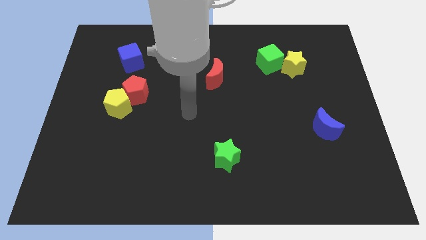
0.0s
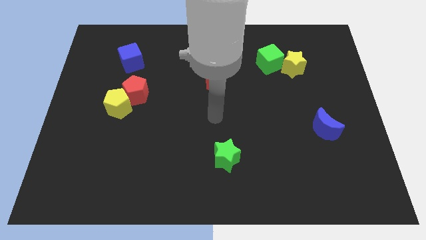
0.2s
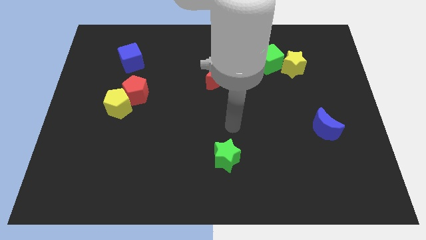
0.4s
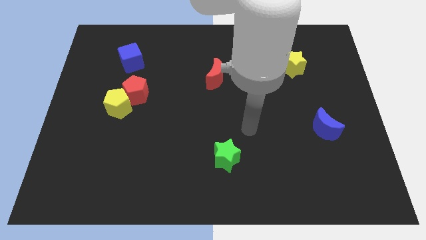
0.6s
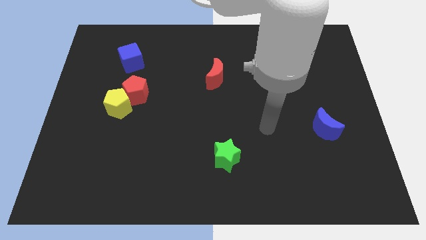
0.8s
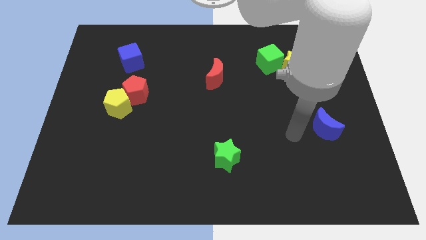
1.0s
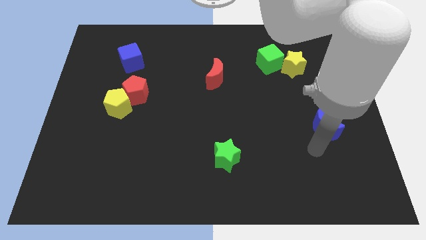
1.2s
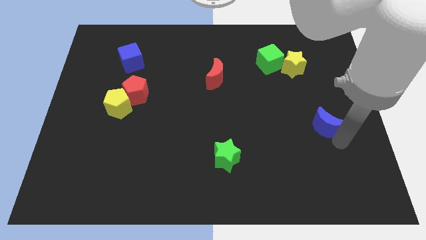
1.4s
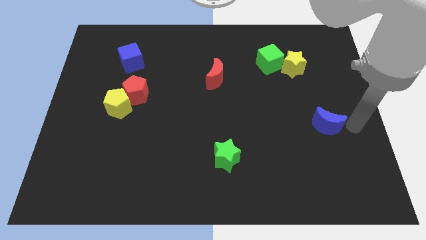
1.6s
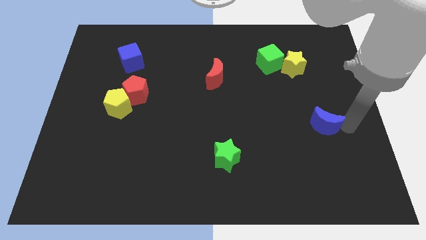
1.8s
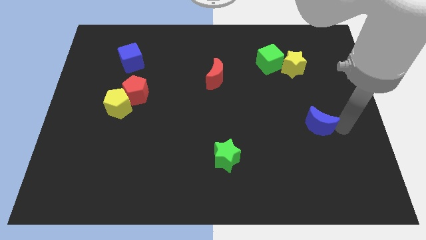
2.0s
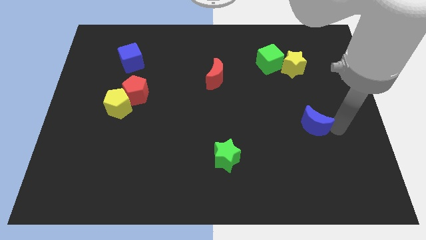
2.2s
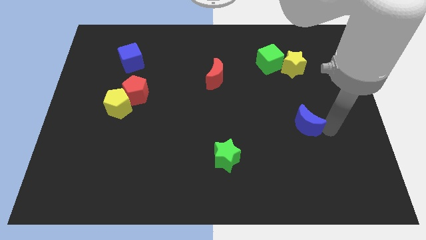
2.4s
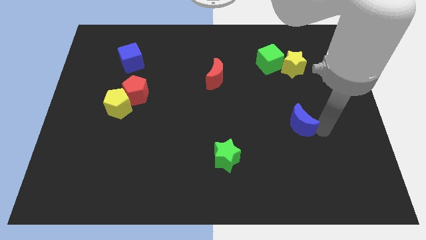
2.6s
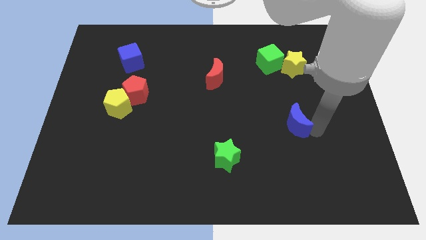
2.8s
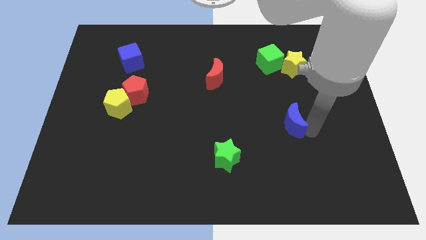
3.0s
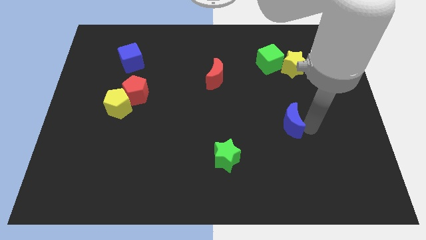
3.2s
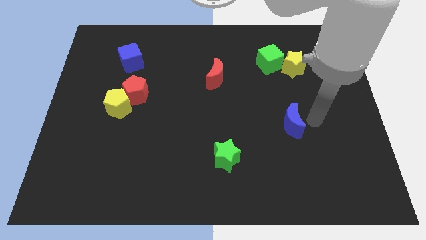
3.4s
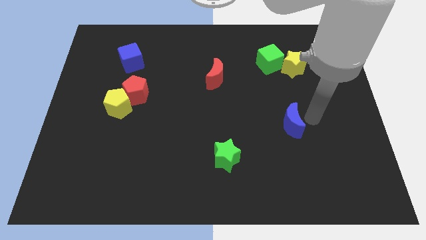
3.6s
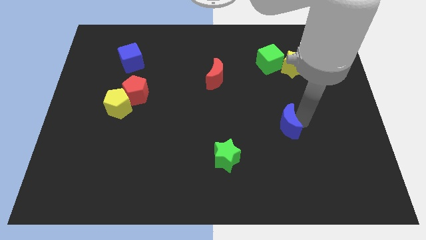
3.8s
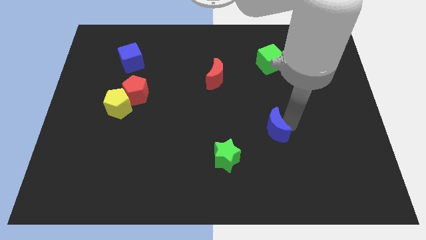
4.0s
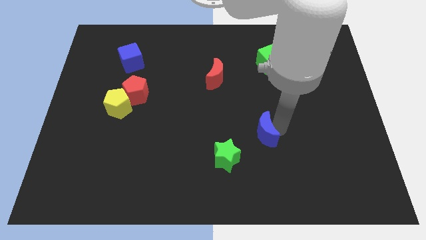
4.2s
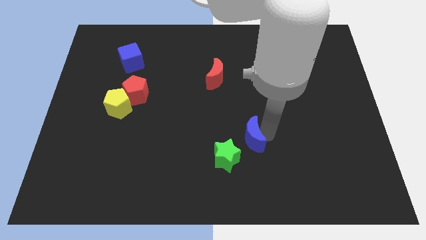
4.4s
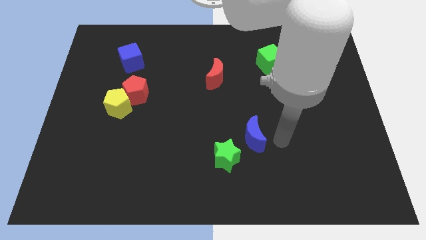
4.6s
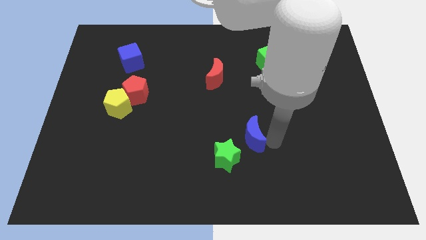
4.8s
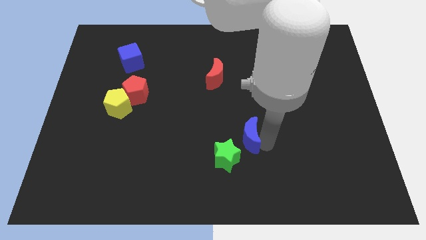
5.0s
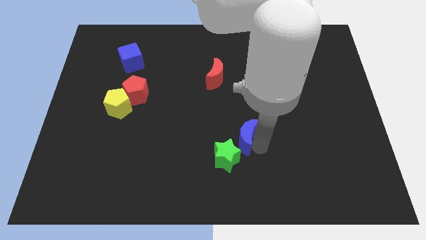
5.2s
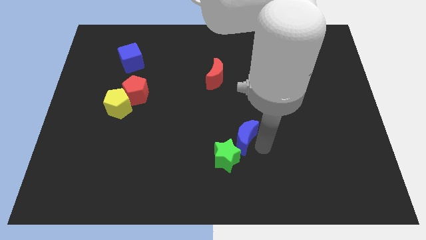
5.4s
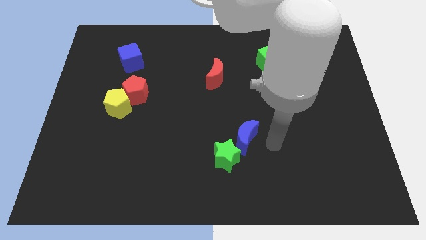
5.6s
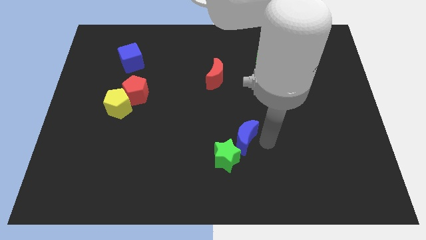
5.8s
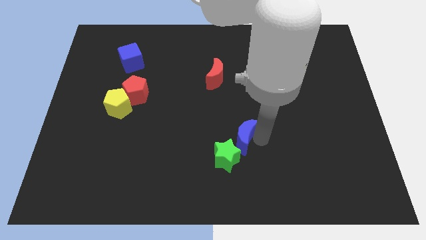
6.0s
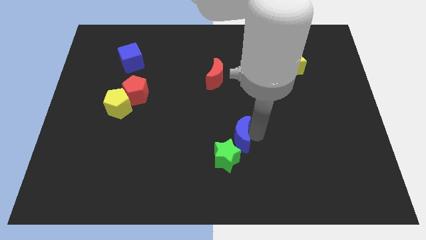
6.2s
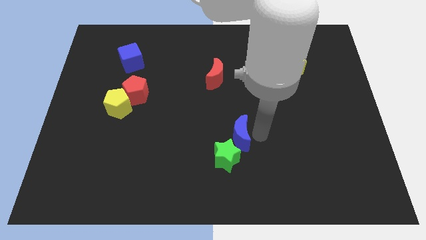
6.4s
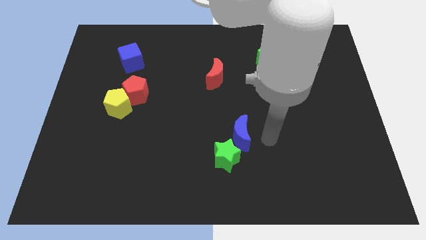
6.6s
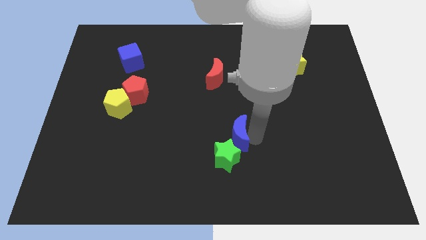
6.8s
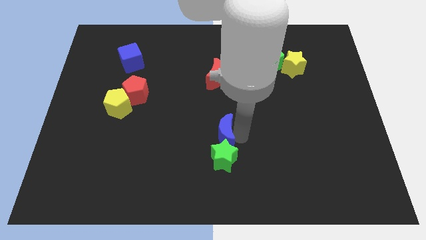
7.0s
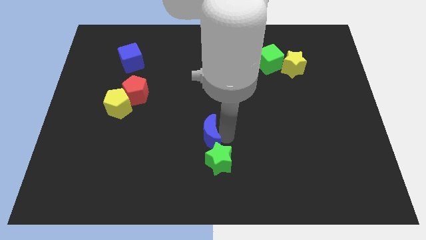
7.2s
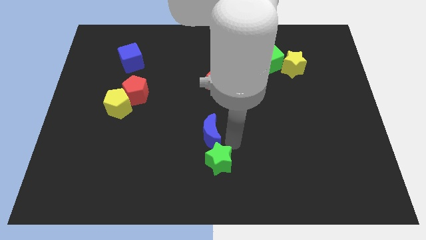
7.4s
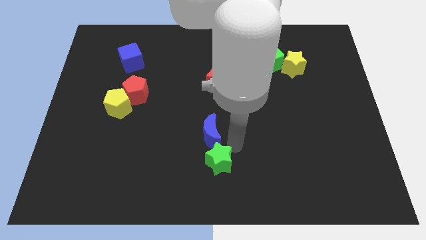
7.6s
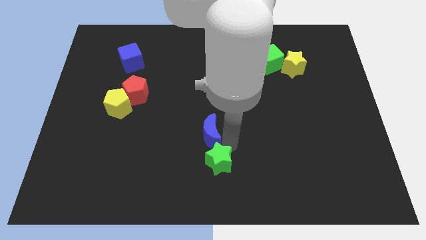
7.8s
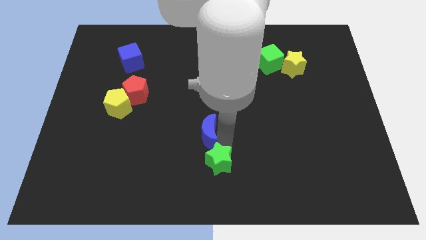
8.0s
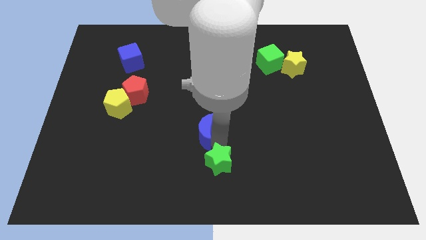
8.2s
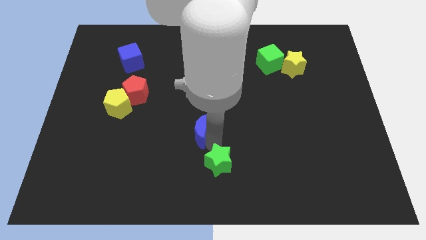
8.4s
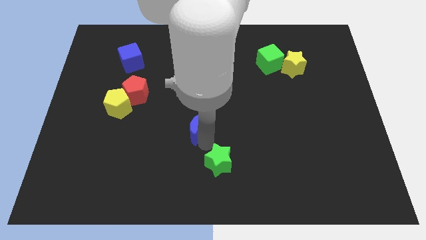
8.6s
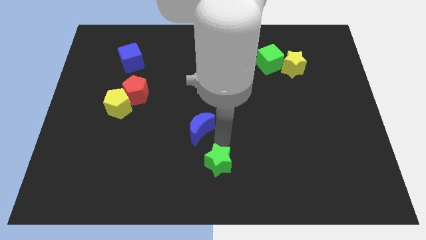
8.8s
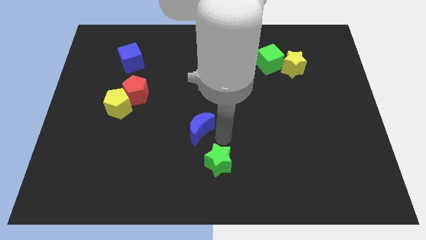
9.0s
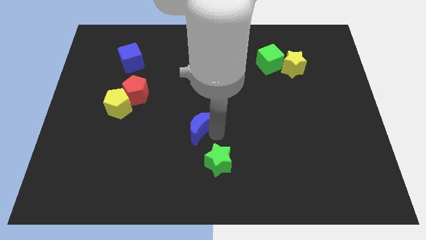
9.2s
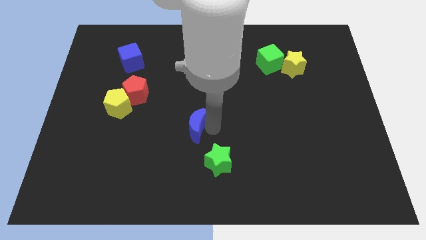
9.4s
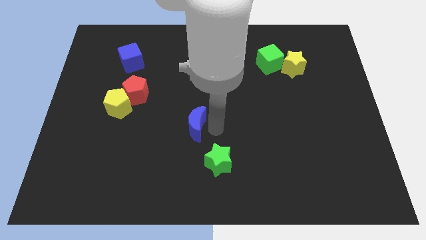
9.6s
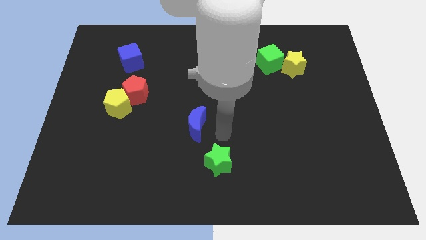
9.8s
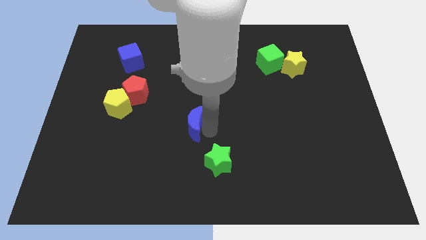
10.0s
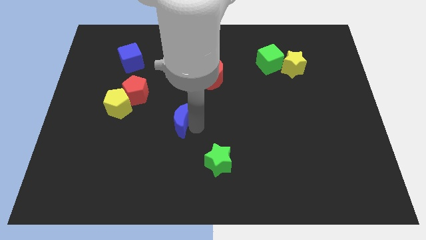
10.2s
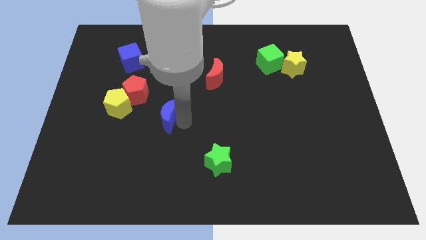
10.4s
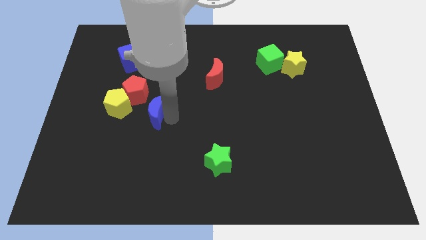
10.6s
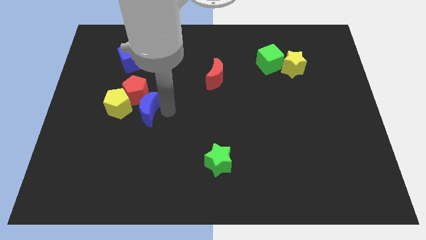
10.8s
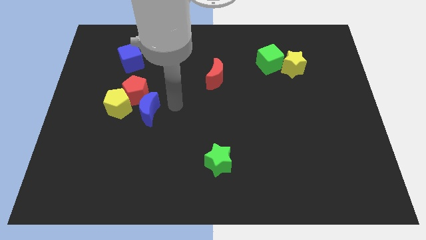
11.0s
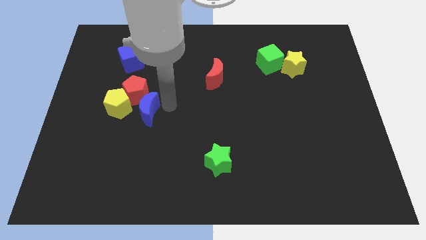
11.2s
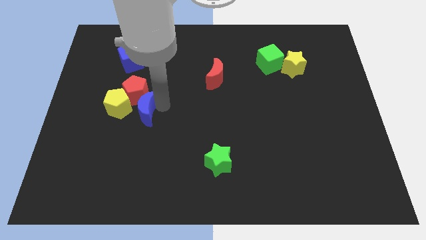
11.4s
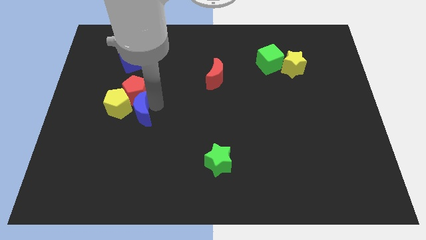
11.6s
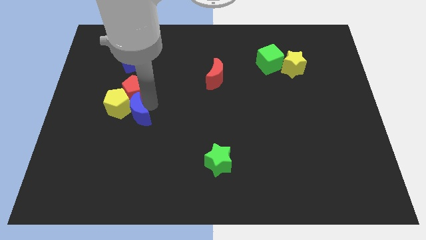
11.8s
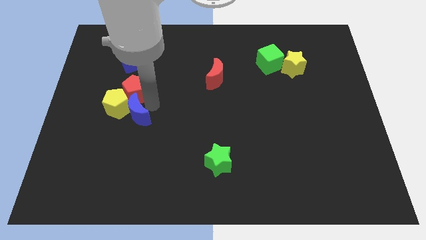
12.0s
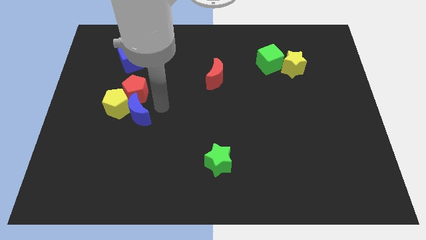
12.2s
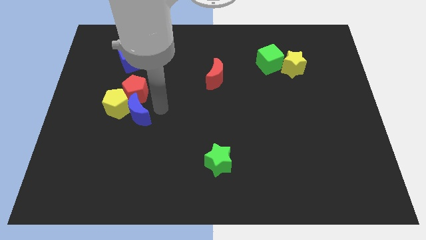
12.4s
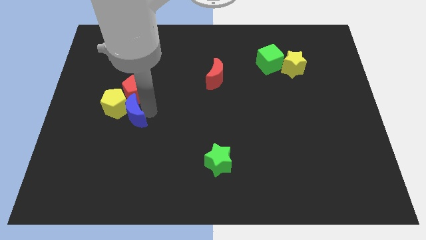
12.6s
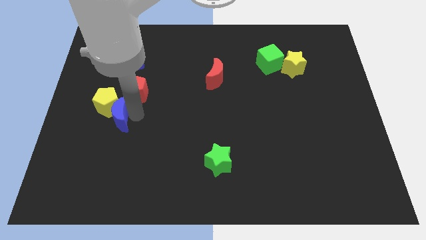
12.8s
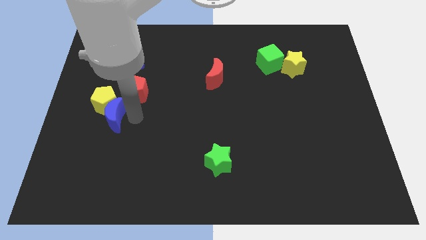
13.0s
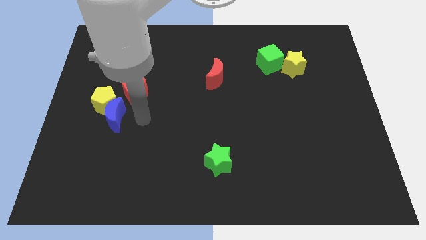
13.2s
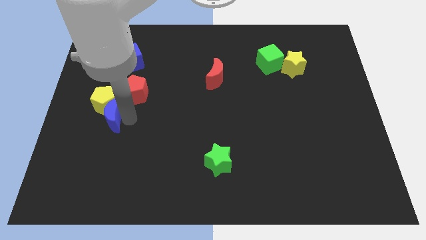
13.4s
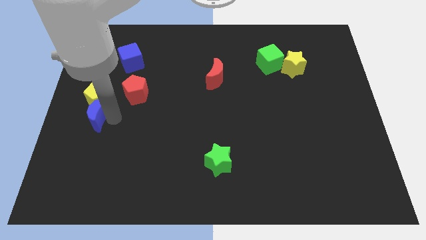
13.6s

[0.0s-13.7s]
move the blue moon to the left side of the board

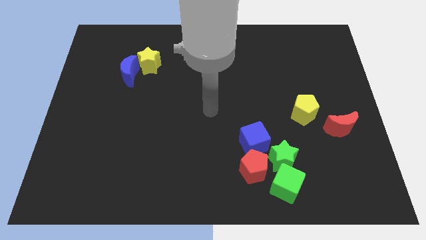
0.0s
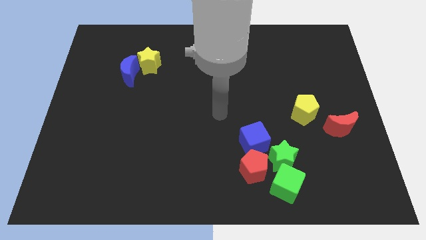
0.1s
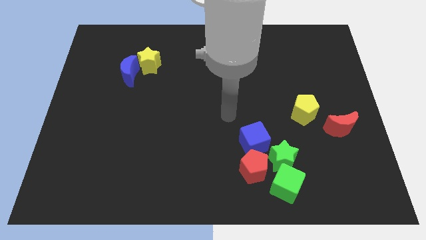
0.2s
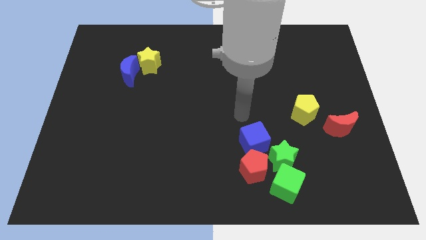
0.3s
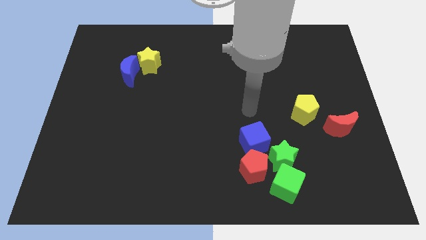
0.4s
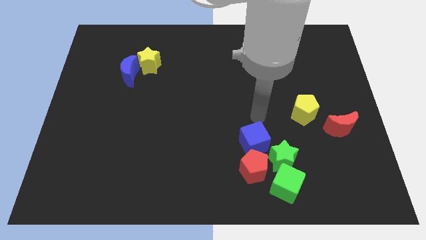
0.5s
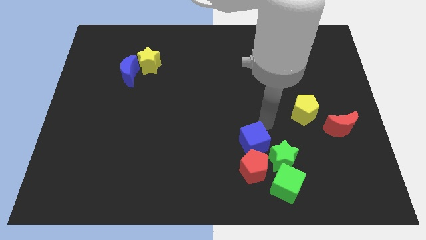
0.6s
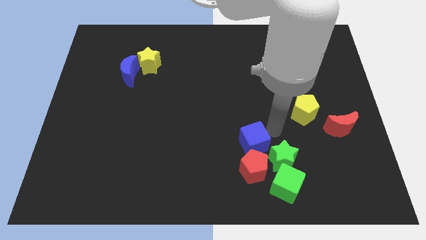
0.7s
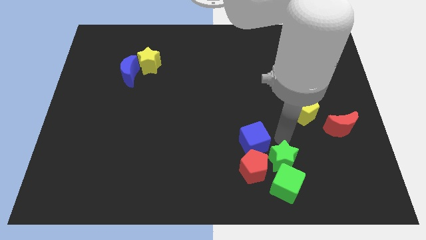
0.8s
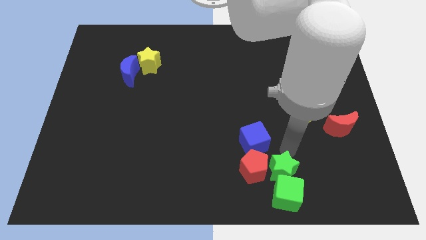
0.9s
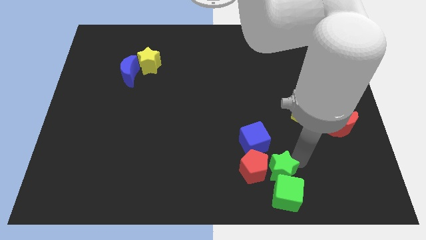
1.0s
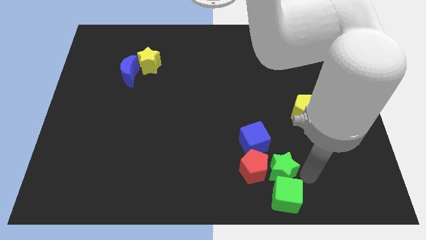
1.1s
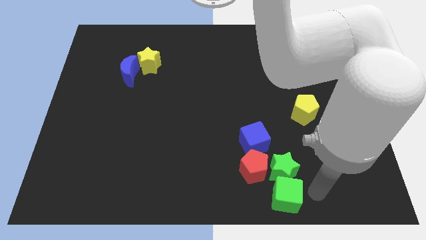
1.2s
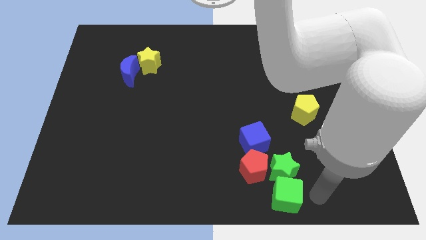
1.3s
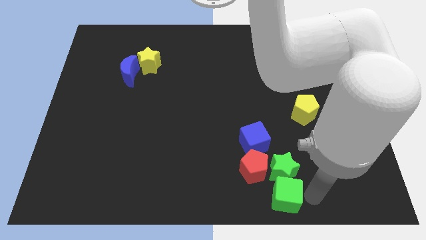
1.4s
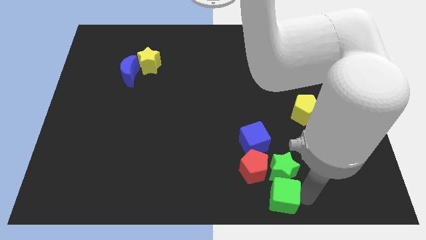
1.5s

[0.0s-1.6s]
put the green cube to the bottom side
